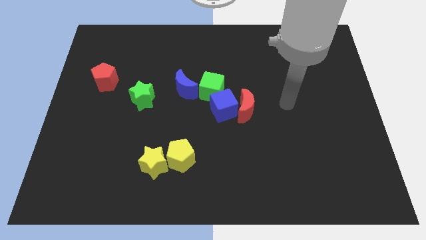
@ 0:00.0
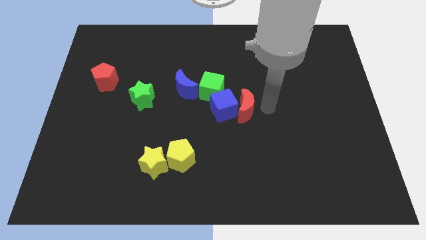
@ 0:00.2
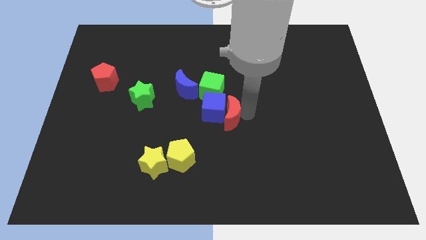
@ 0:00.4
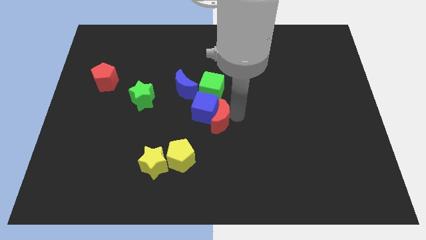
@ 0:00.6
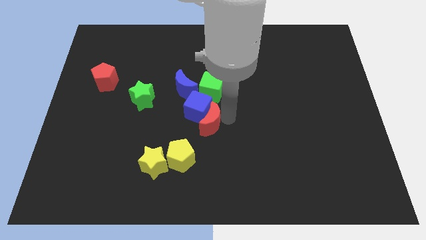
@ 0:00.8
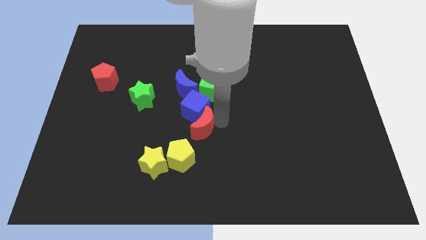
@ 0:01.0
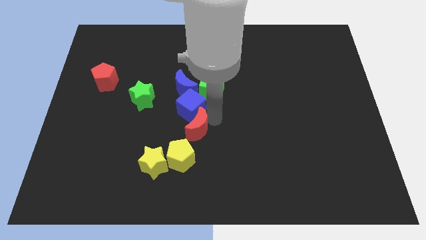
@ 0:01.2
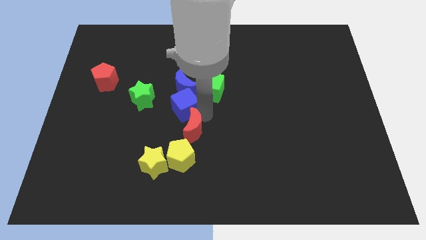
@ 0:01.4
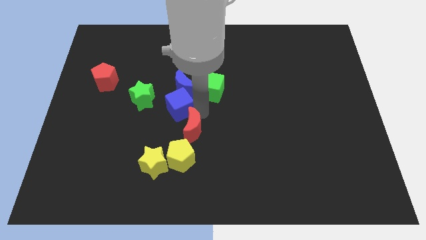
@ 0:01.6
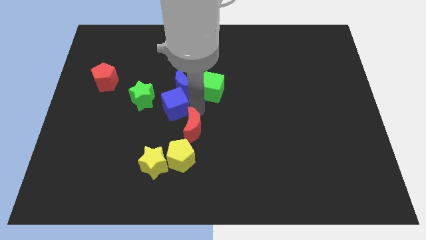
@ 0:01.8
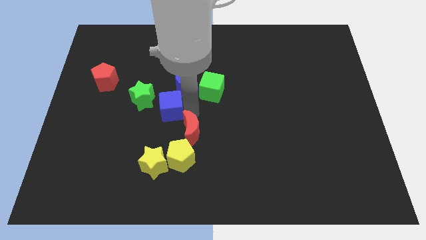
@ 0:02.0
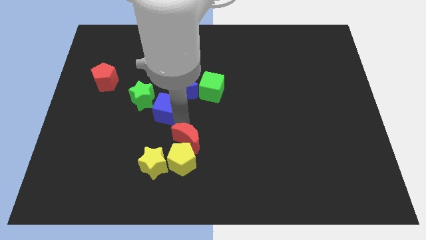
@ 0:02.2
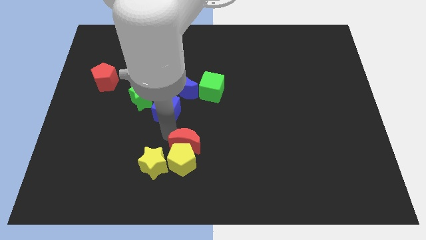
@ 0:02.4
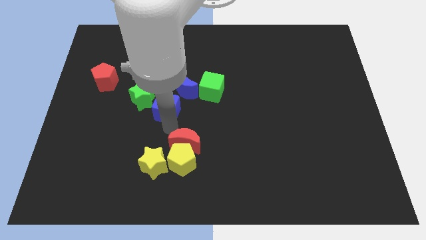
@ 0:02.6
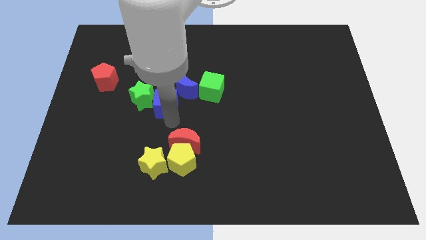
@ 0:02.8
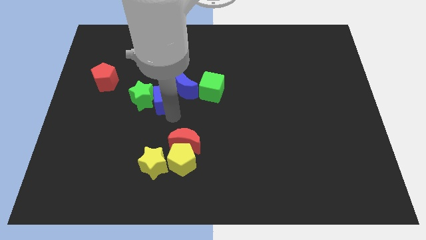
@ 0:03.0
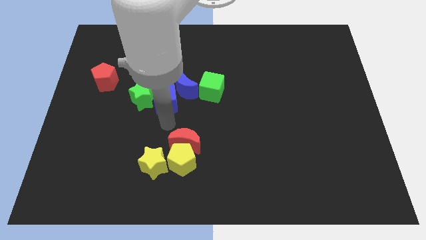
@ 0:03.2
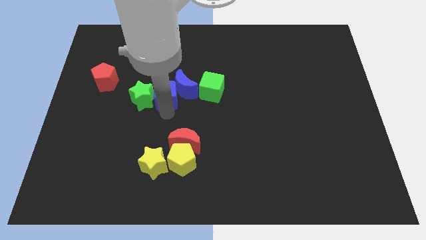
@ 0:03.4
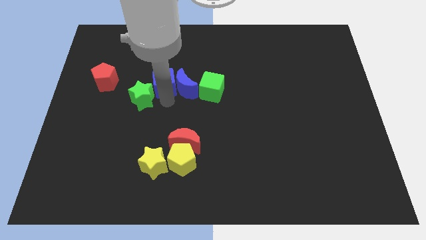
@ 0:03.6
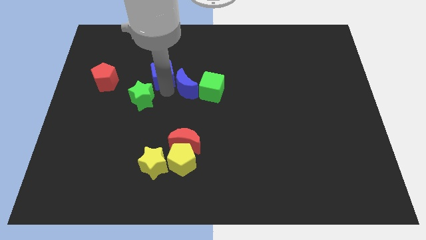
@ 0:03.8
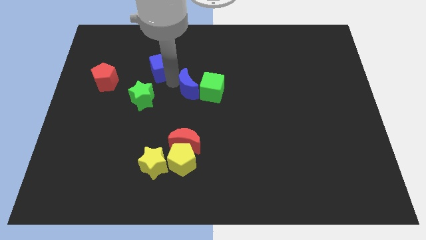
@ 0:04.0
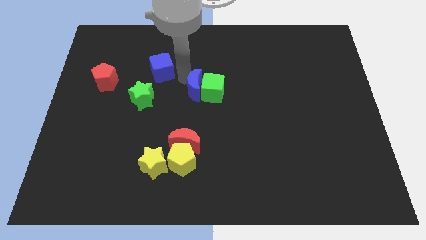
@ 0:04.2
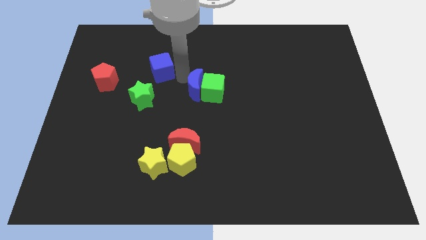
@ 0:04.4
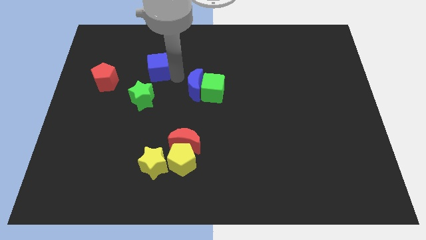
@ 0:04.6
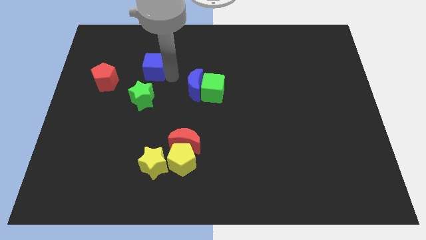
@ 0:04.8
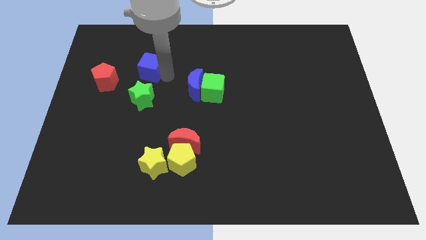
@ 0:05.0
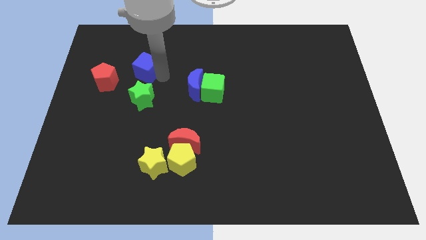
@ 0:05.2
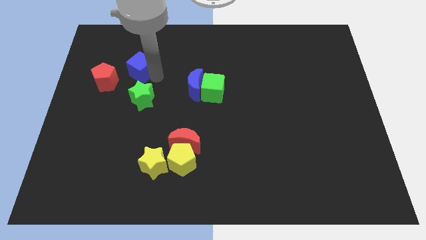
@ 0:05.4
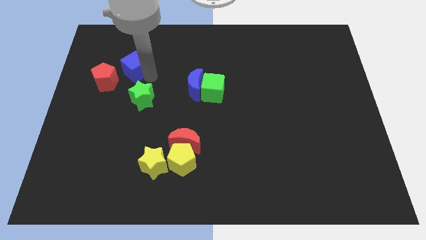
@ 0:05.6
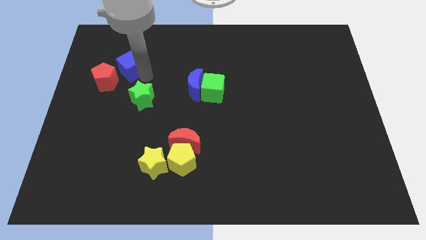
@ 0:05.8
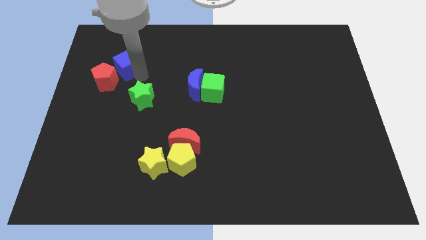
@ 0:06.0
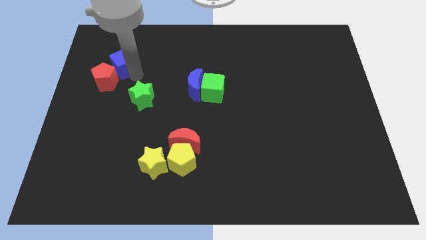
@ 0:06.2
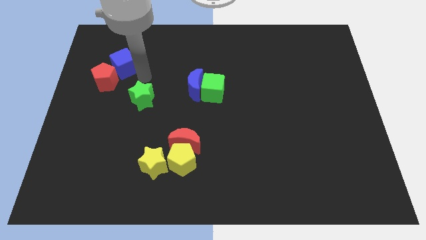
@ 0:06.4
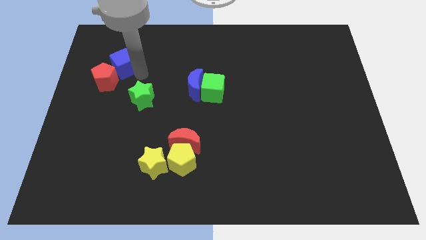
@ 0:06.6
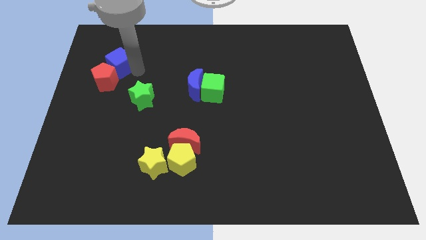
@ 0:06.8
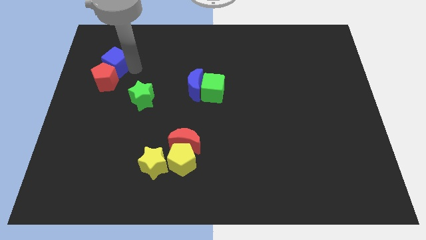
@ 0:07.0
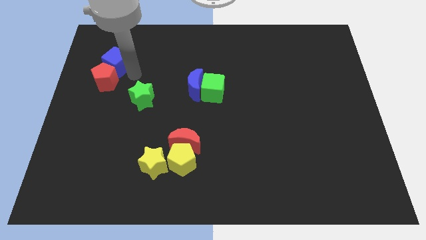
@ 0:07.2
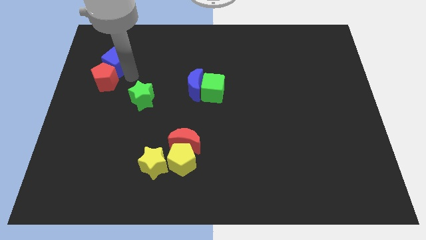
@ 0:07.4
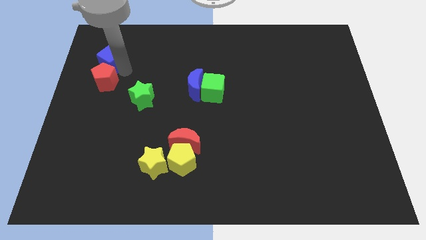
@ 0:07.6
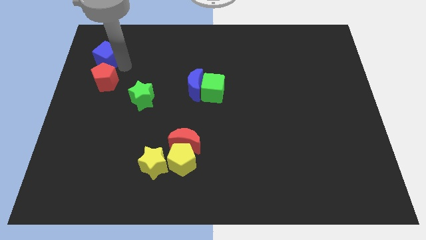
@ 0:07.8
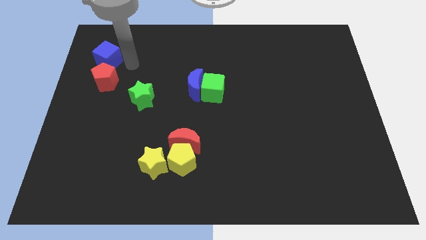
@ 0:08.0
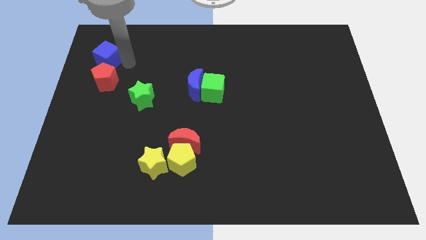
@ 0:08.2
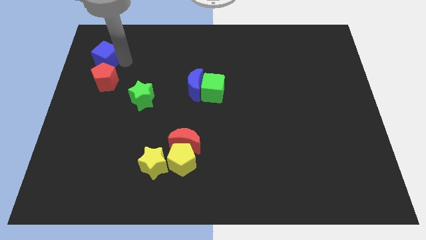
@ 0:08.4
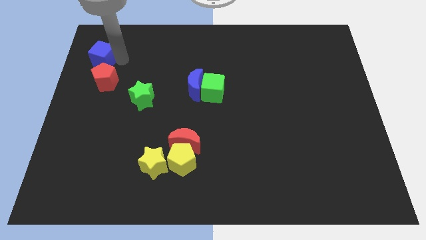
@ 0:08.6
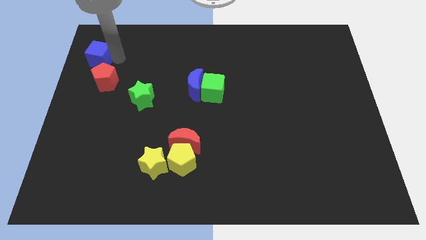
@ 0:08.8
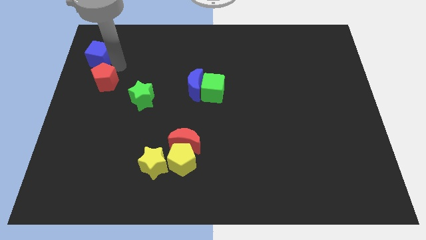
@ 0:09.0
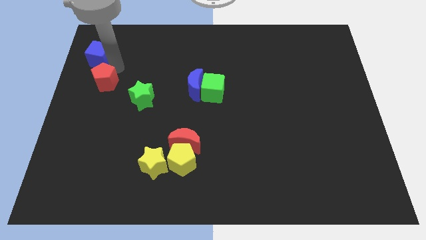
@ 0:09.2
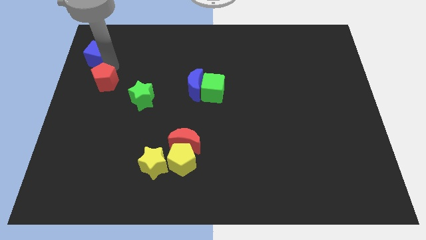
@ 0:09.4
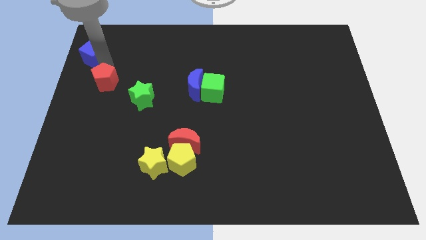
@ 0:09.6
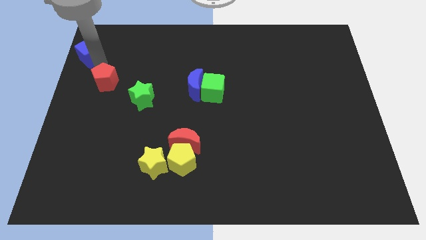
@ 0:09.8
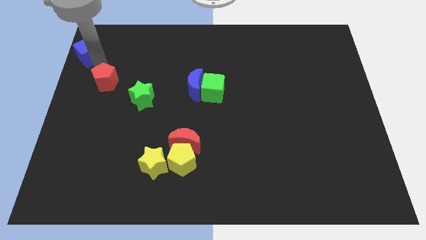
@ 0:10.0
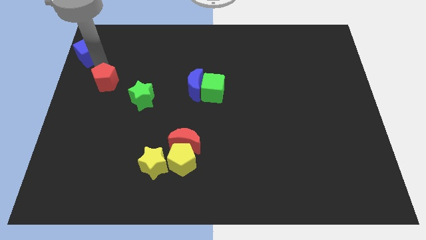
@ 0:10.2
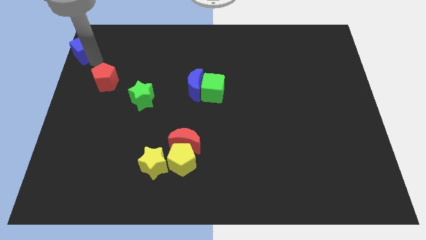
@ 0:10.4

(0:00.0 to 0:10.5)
put the blue cube to the upper left corner

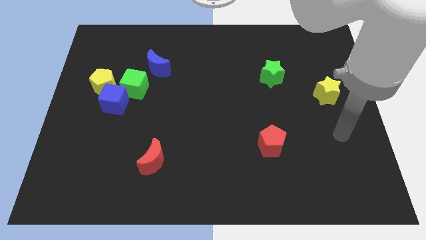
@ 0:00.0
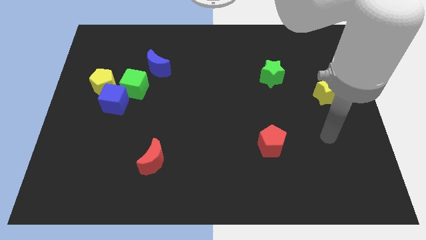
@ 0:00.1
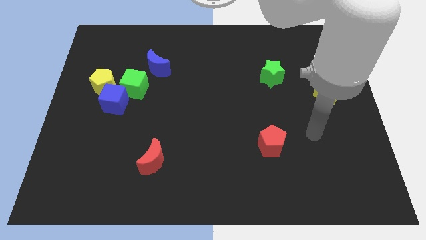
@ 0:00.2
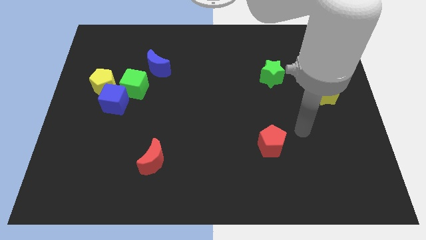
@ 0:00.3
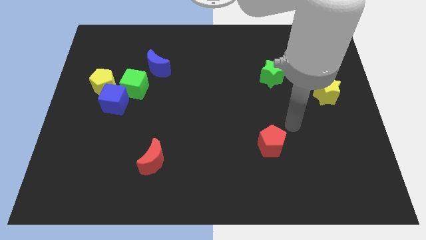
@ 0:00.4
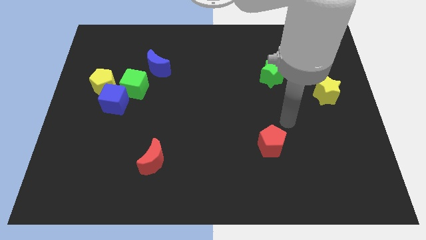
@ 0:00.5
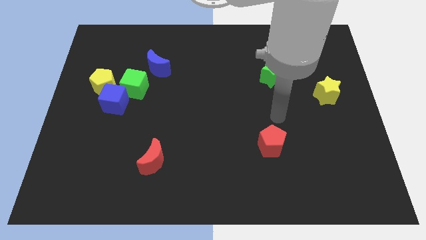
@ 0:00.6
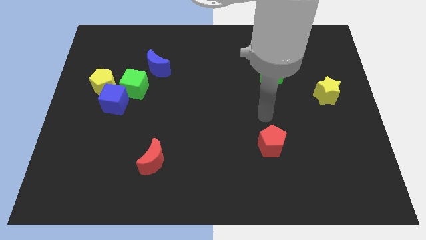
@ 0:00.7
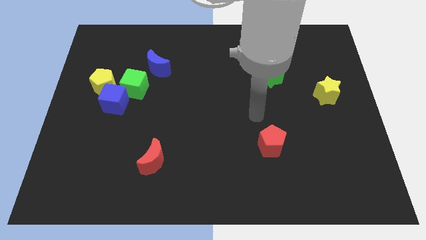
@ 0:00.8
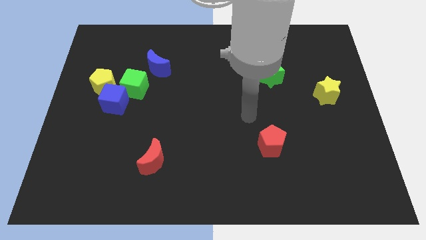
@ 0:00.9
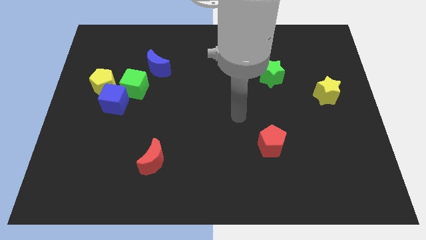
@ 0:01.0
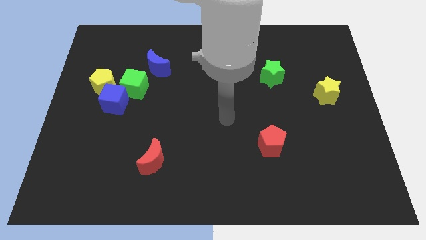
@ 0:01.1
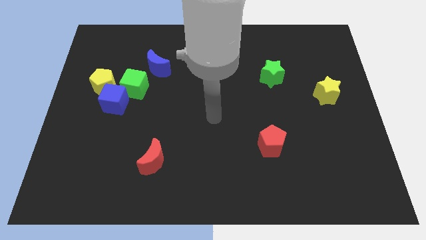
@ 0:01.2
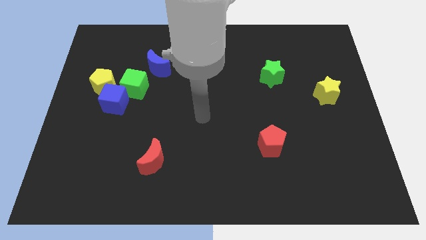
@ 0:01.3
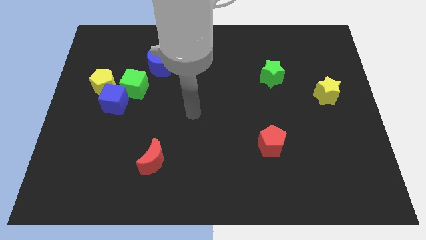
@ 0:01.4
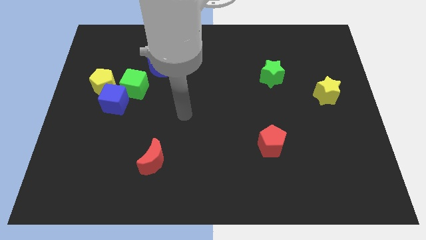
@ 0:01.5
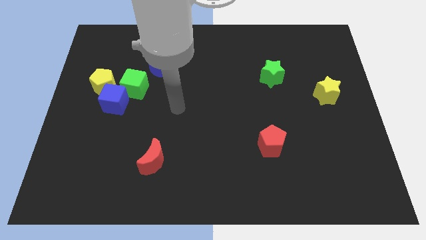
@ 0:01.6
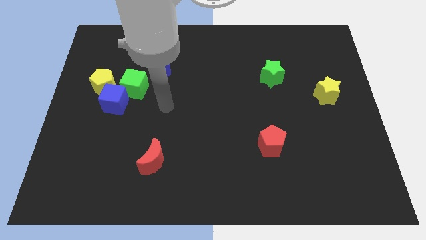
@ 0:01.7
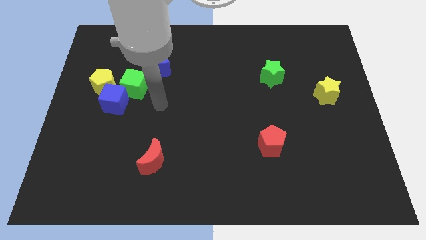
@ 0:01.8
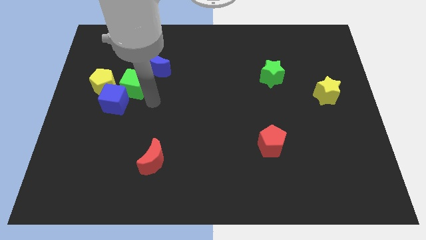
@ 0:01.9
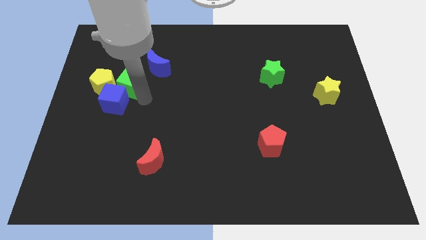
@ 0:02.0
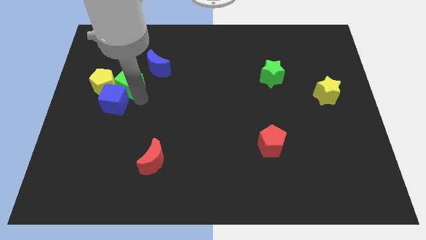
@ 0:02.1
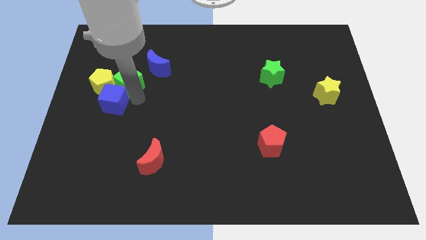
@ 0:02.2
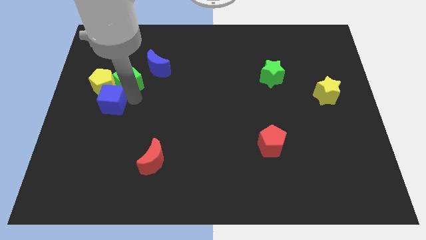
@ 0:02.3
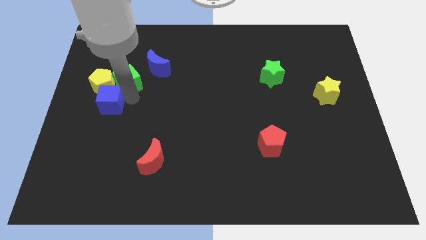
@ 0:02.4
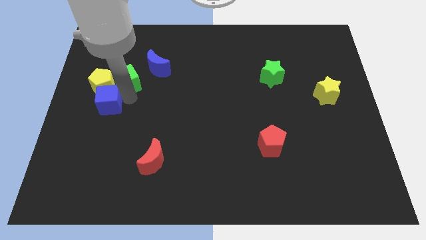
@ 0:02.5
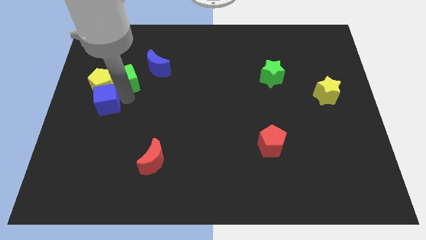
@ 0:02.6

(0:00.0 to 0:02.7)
slide the blue cube to the left side
